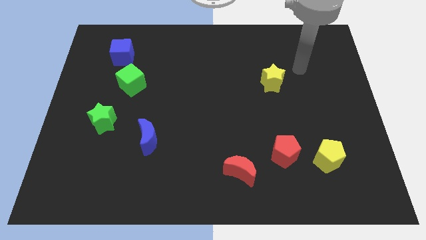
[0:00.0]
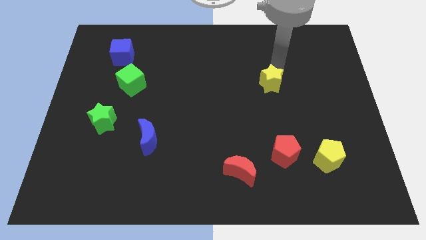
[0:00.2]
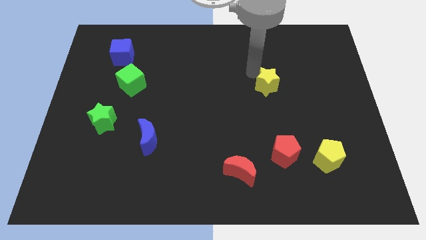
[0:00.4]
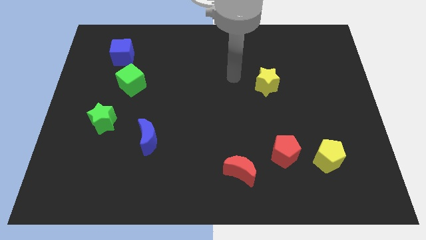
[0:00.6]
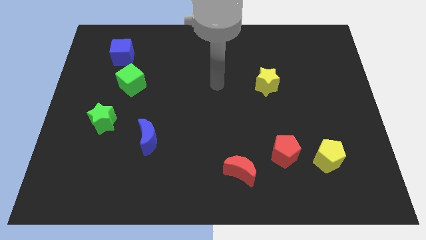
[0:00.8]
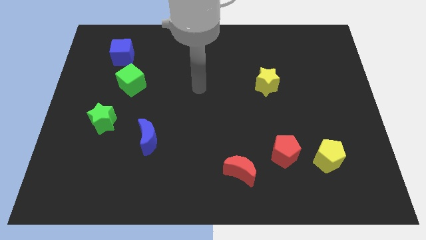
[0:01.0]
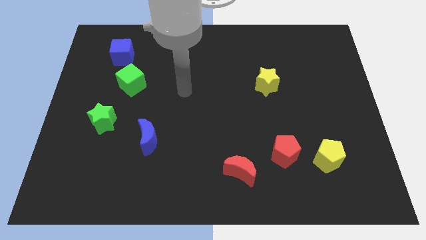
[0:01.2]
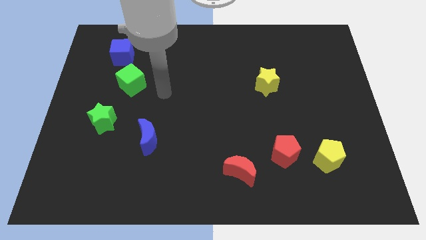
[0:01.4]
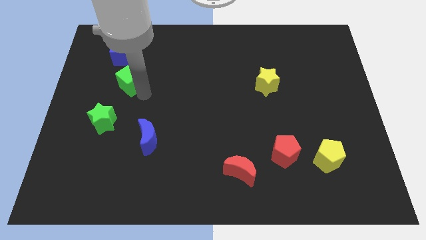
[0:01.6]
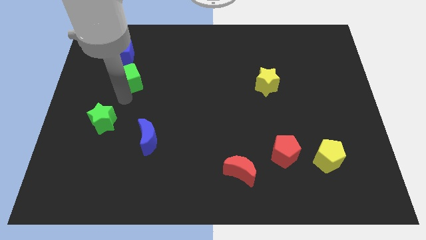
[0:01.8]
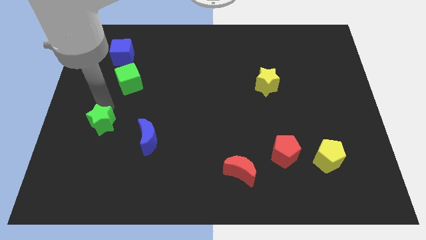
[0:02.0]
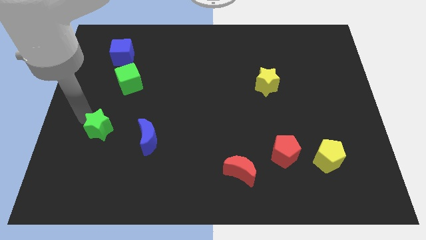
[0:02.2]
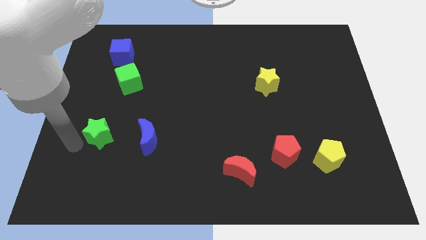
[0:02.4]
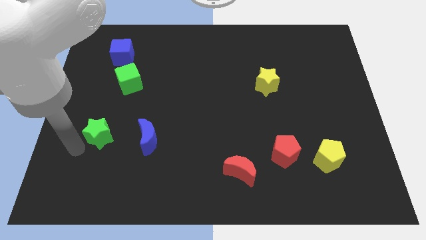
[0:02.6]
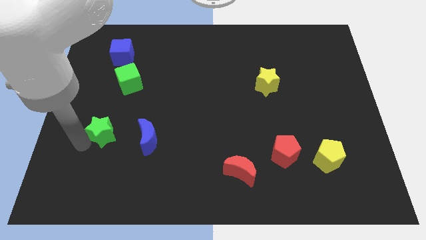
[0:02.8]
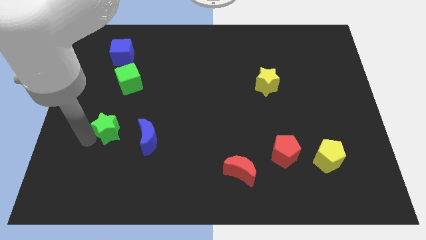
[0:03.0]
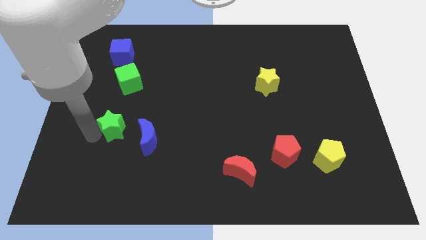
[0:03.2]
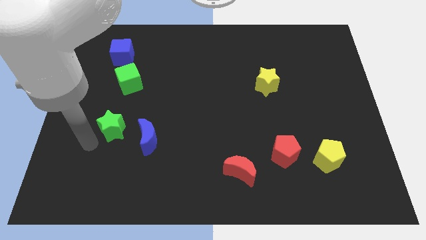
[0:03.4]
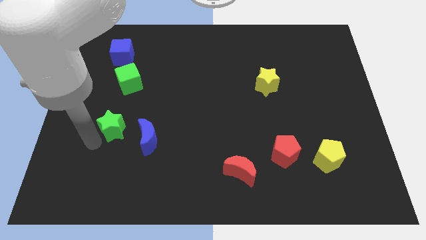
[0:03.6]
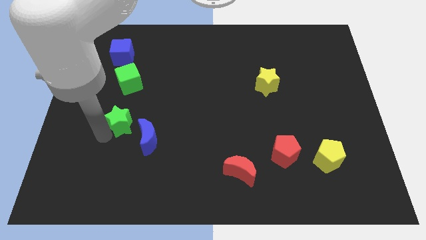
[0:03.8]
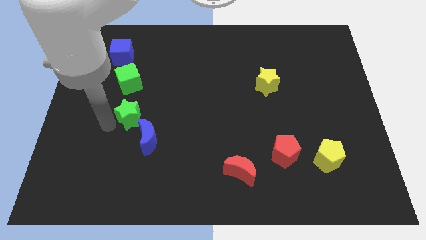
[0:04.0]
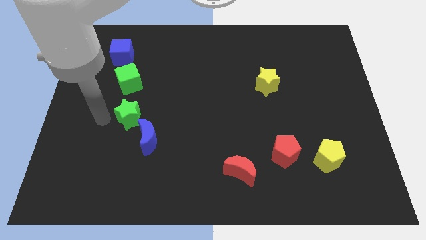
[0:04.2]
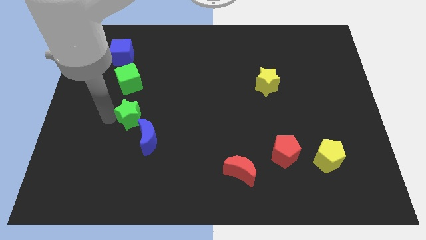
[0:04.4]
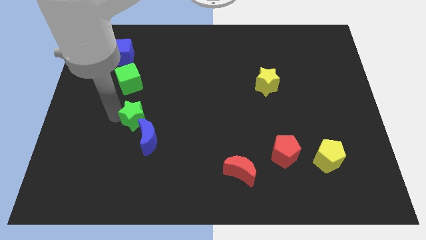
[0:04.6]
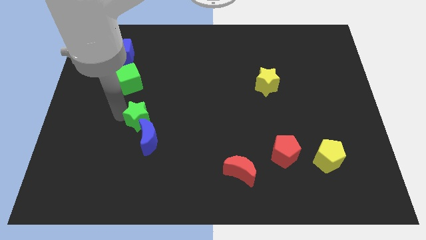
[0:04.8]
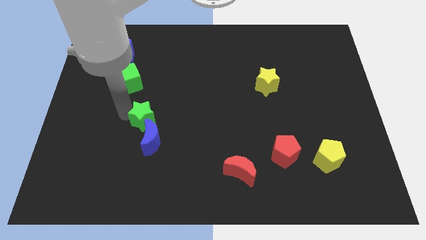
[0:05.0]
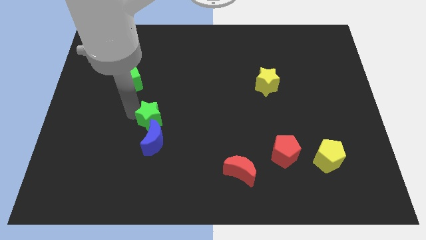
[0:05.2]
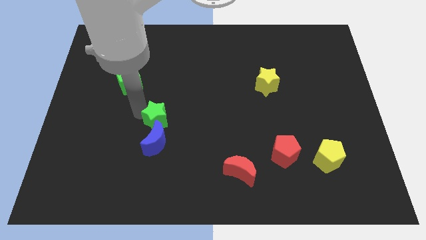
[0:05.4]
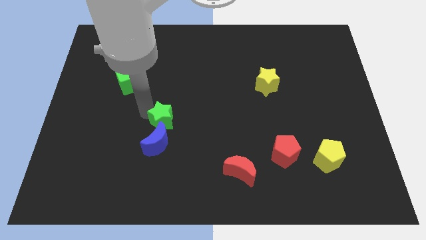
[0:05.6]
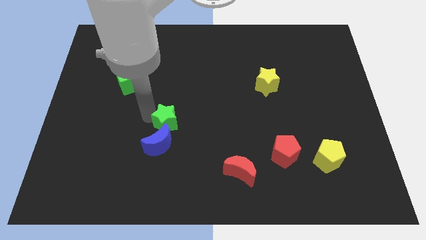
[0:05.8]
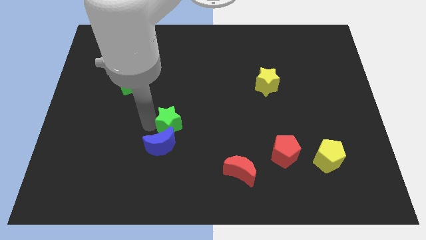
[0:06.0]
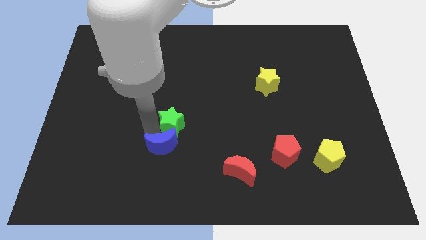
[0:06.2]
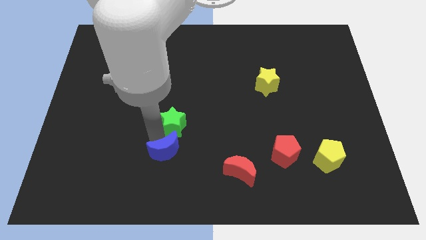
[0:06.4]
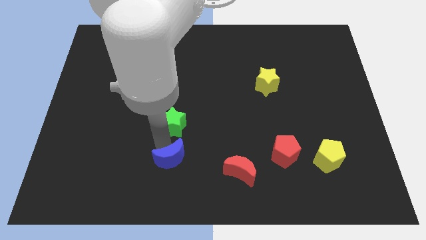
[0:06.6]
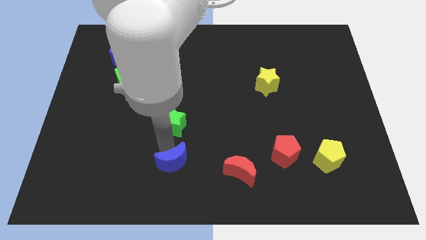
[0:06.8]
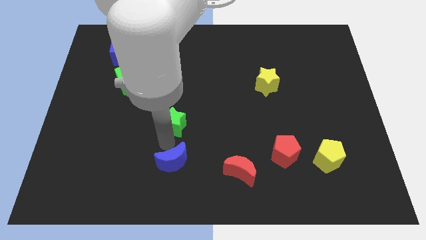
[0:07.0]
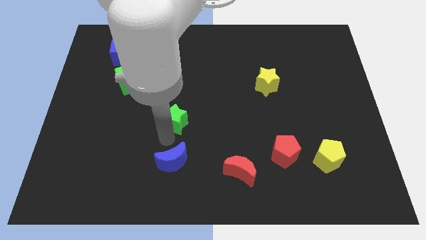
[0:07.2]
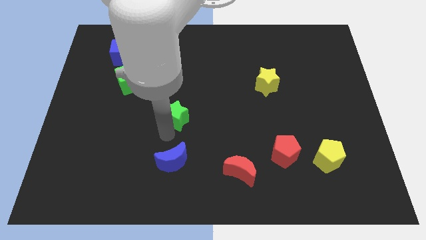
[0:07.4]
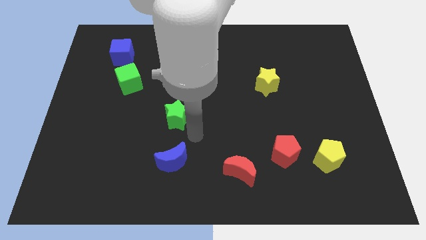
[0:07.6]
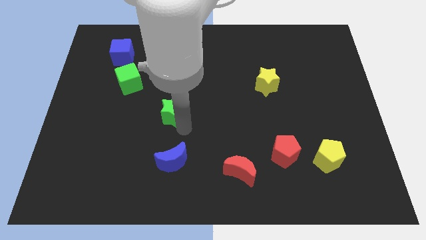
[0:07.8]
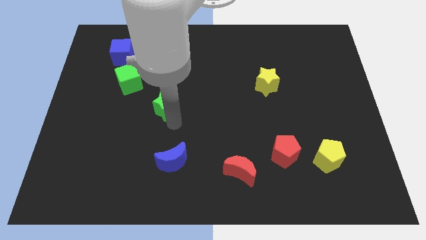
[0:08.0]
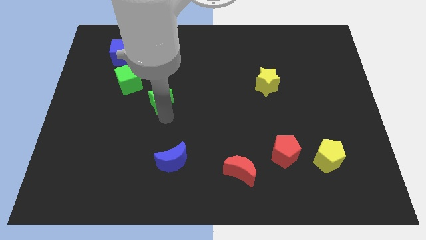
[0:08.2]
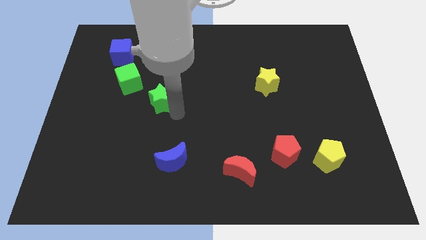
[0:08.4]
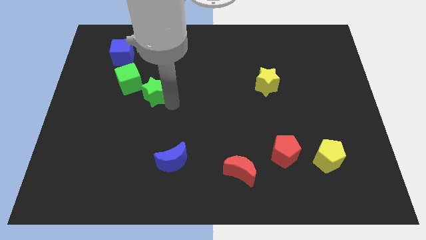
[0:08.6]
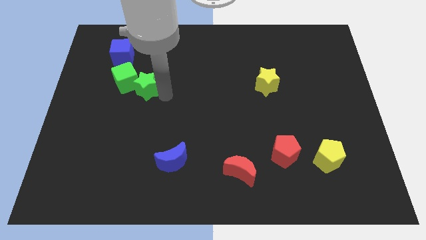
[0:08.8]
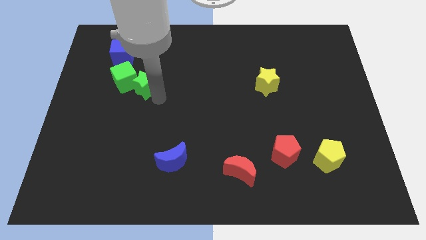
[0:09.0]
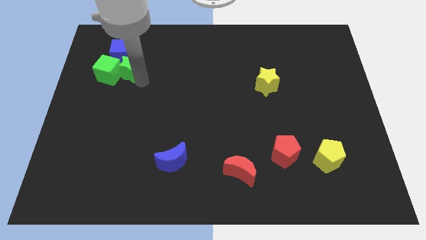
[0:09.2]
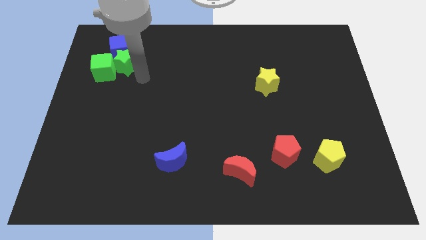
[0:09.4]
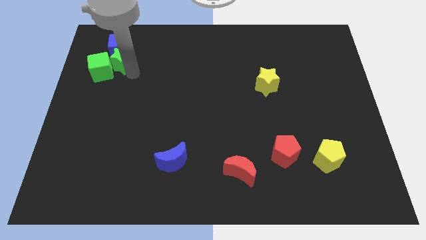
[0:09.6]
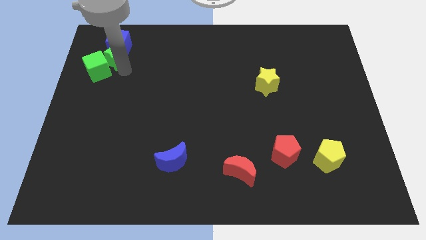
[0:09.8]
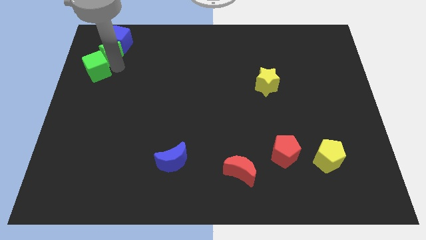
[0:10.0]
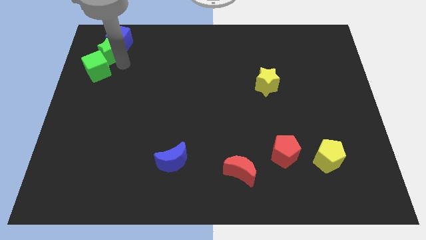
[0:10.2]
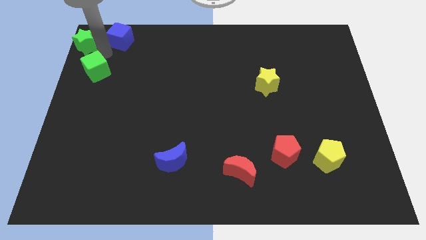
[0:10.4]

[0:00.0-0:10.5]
put the green star to the upper left corner

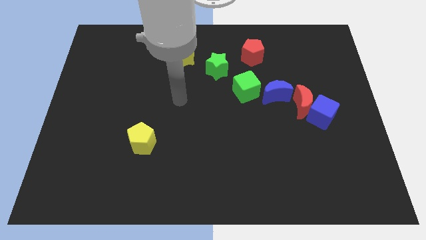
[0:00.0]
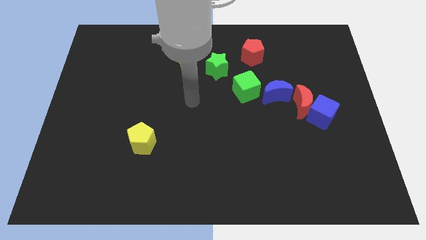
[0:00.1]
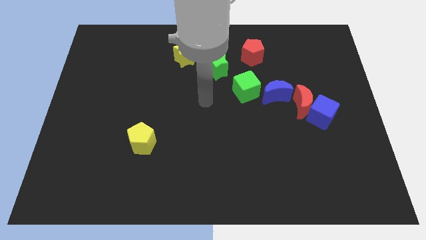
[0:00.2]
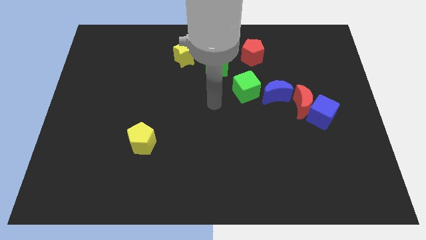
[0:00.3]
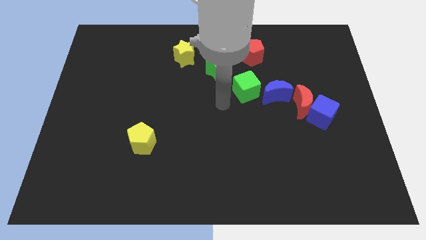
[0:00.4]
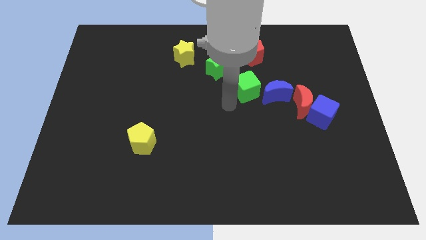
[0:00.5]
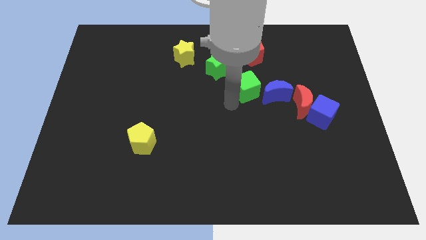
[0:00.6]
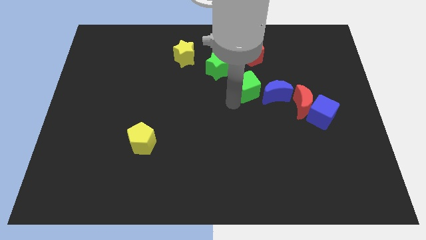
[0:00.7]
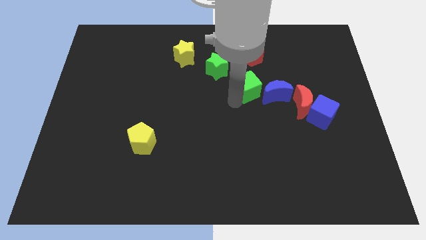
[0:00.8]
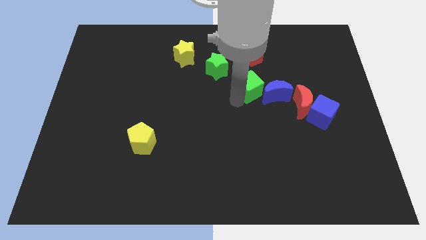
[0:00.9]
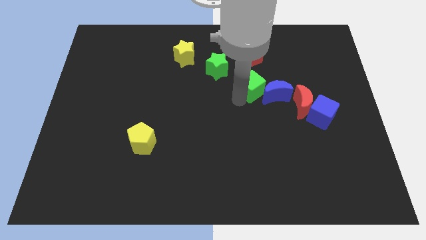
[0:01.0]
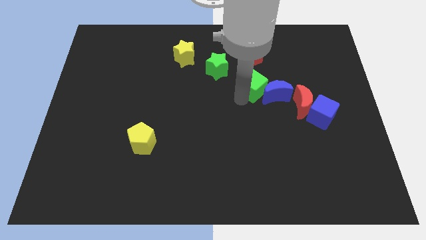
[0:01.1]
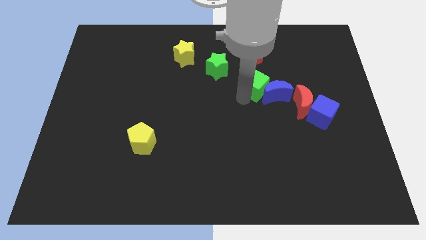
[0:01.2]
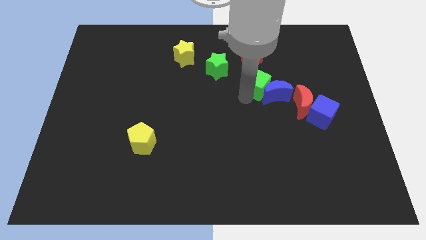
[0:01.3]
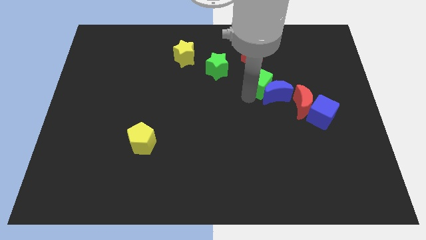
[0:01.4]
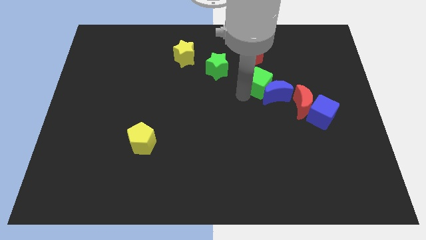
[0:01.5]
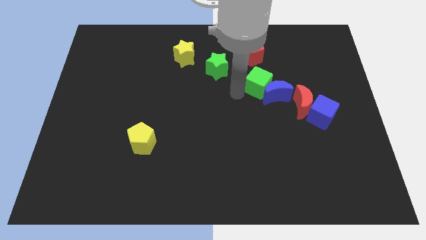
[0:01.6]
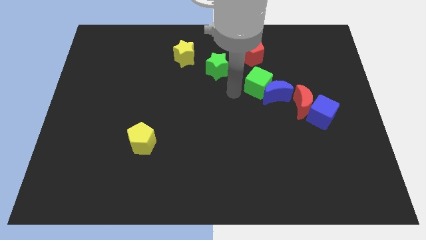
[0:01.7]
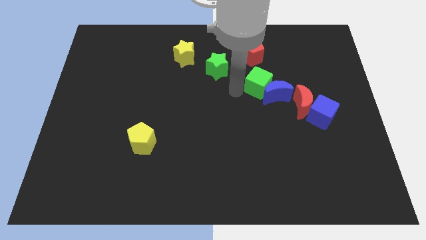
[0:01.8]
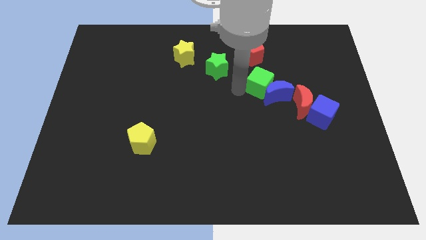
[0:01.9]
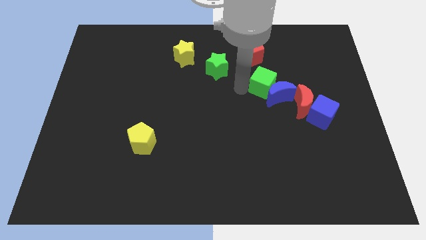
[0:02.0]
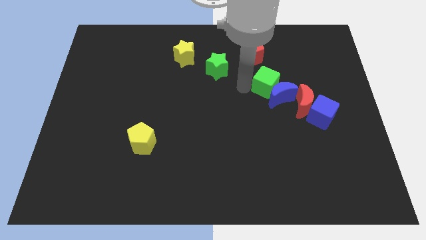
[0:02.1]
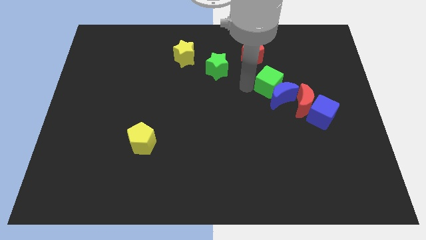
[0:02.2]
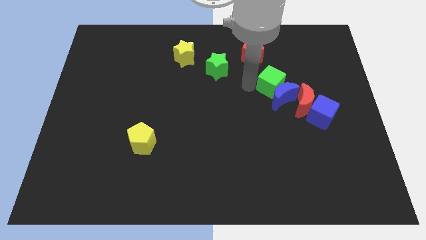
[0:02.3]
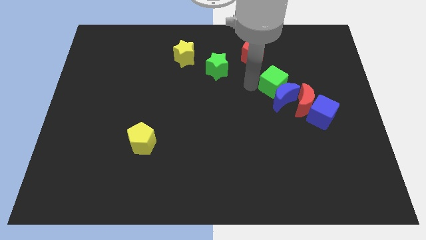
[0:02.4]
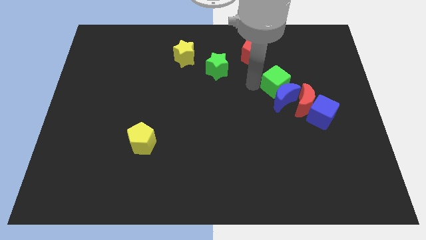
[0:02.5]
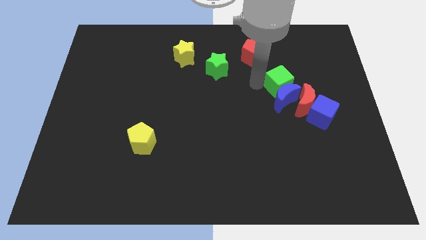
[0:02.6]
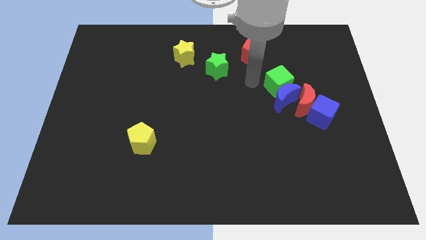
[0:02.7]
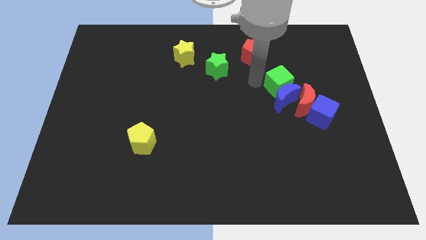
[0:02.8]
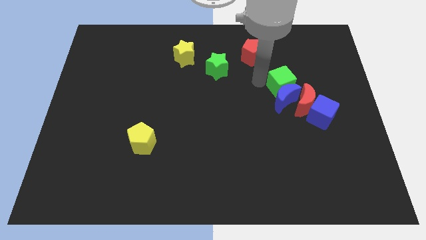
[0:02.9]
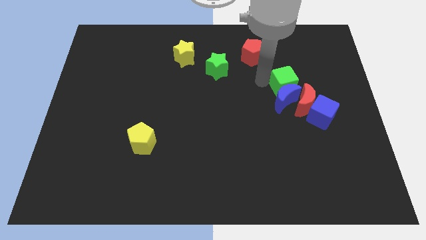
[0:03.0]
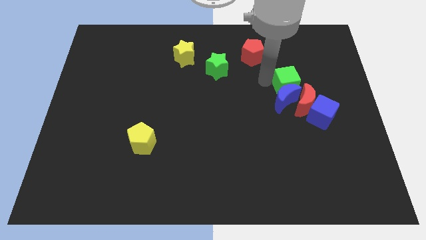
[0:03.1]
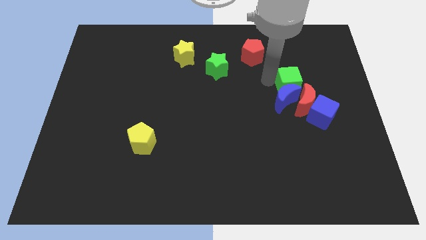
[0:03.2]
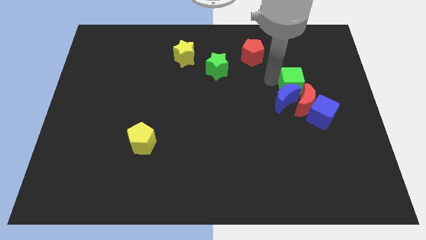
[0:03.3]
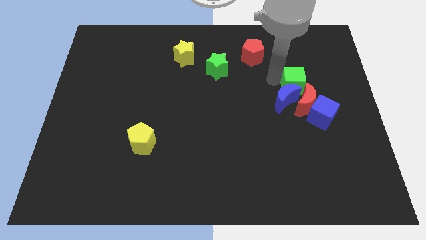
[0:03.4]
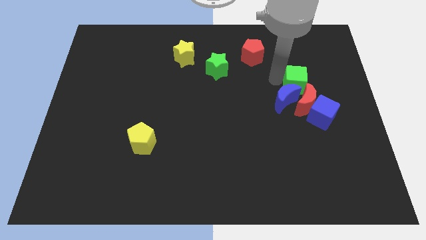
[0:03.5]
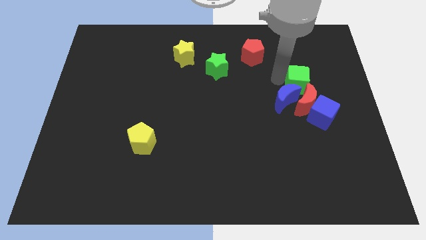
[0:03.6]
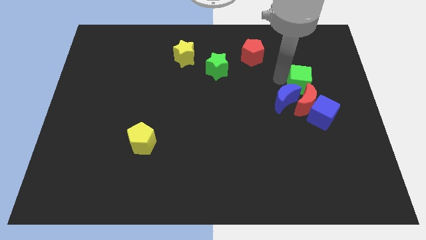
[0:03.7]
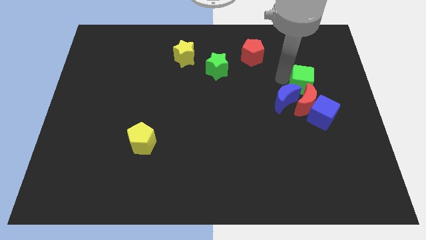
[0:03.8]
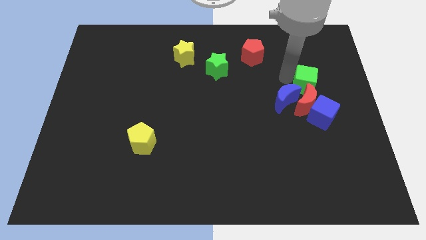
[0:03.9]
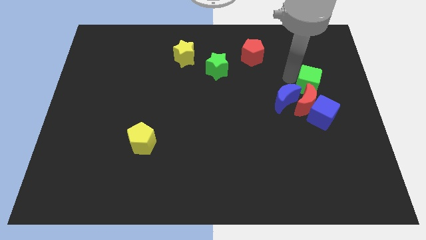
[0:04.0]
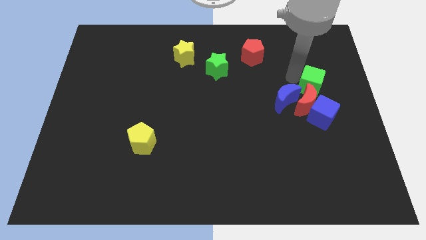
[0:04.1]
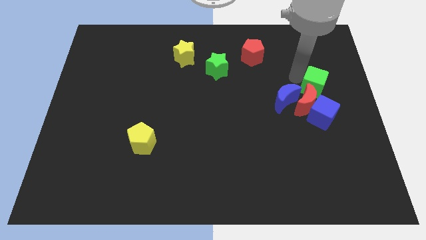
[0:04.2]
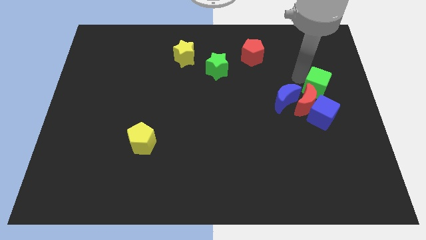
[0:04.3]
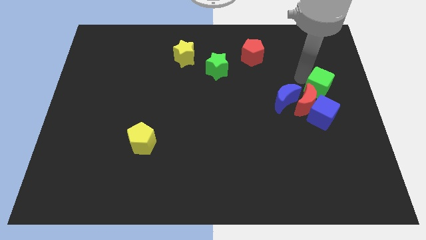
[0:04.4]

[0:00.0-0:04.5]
move the green cube to the right side
